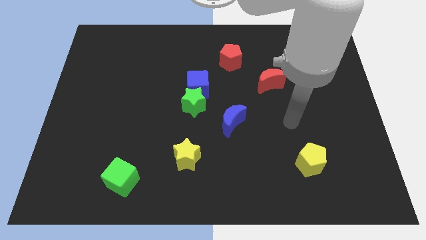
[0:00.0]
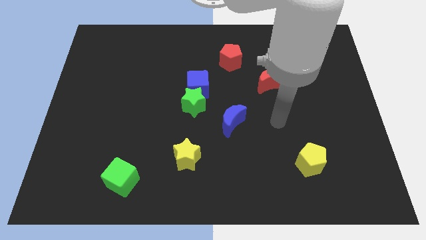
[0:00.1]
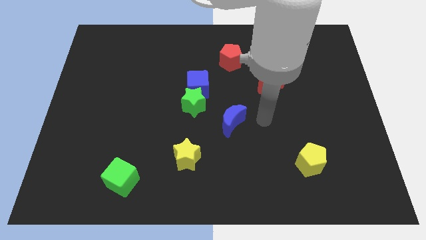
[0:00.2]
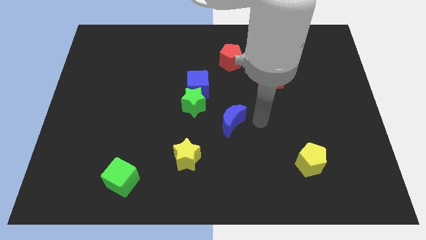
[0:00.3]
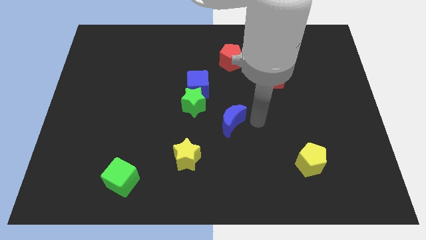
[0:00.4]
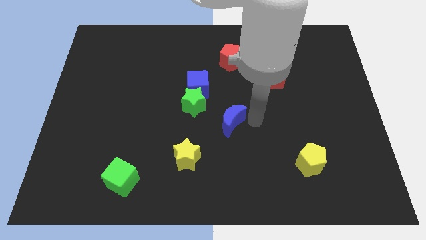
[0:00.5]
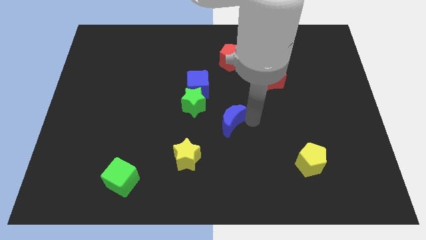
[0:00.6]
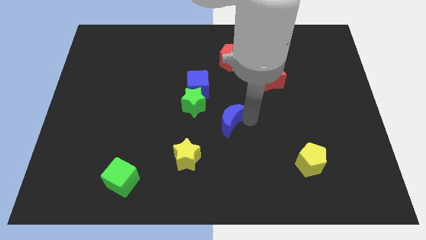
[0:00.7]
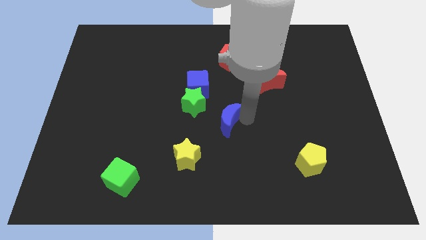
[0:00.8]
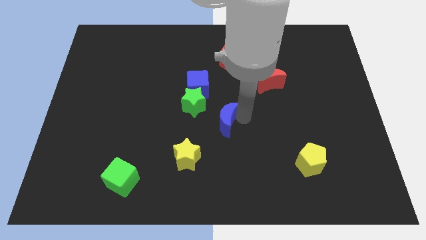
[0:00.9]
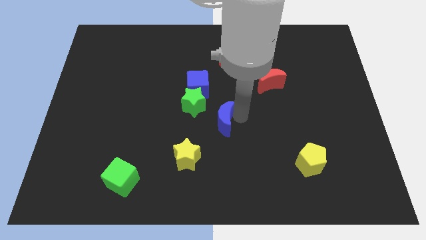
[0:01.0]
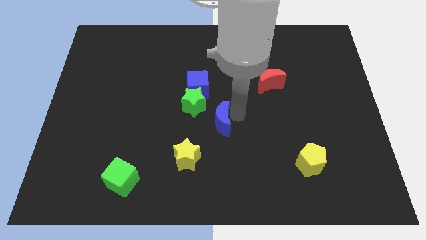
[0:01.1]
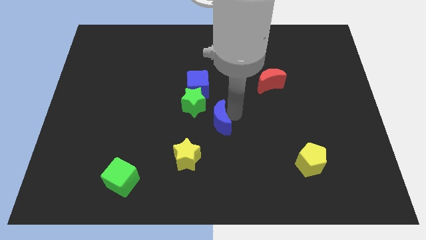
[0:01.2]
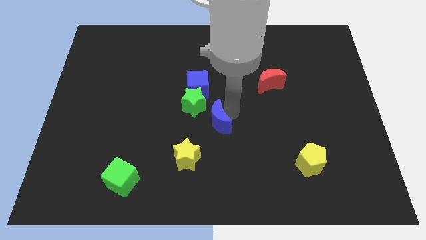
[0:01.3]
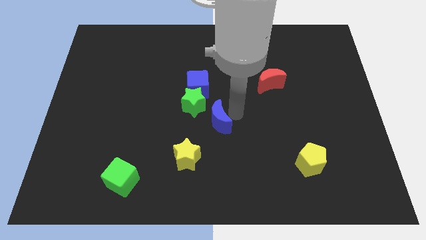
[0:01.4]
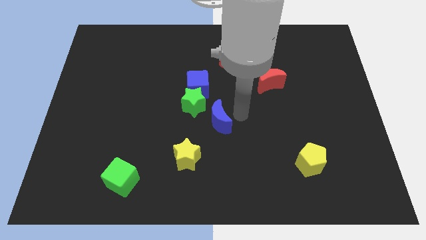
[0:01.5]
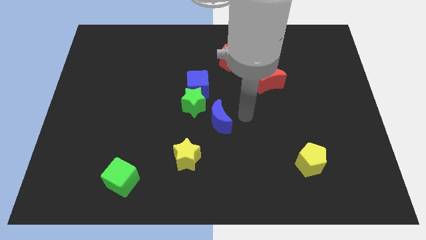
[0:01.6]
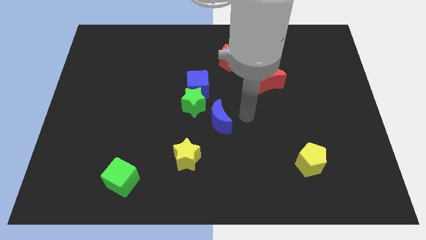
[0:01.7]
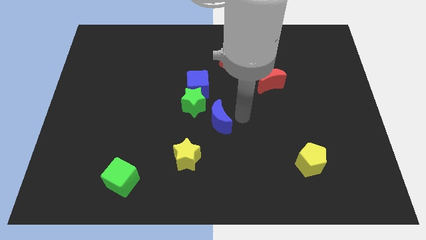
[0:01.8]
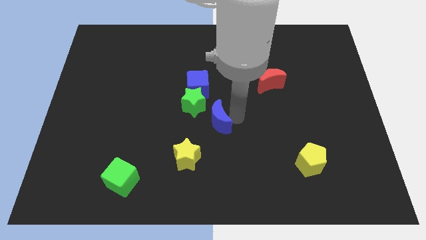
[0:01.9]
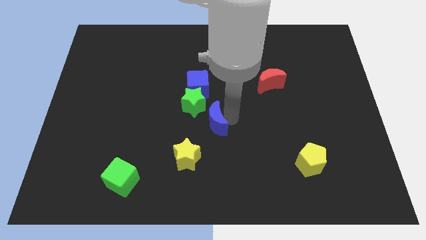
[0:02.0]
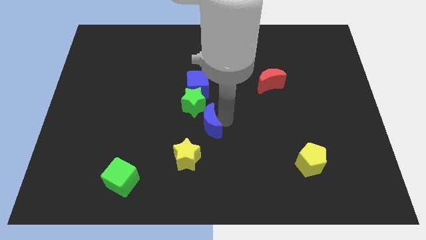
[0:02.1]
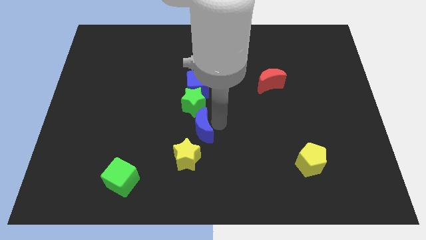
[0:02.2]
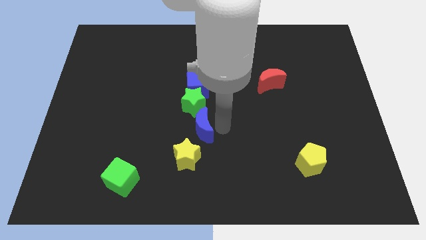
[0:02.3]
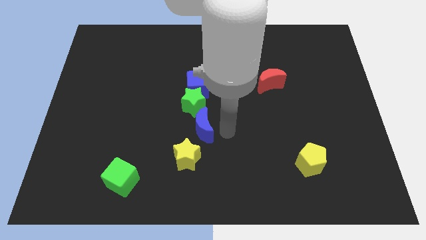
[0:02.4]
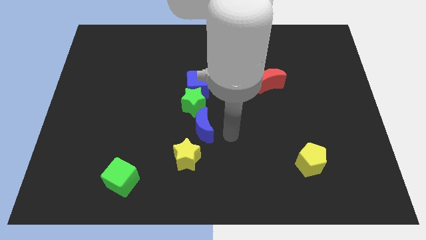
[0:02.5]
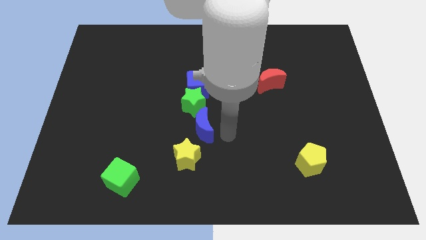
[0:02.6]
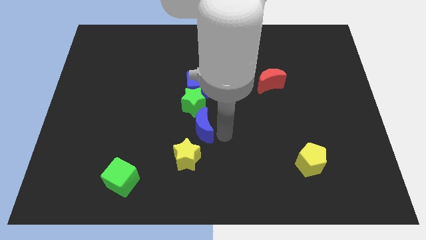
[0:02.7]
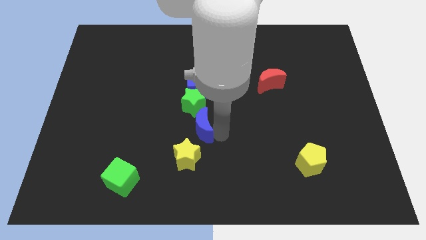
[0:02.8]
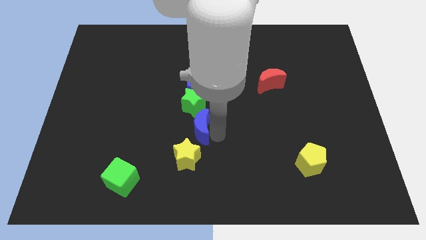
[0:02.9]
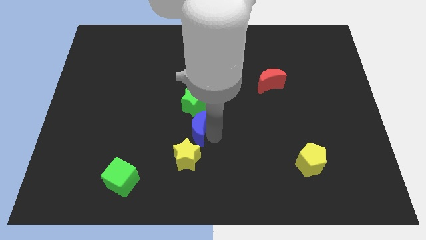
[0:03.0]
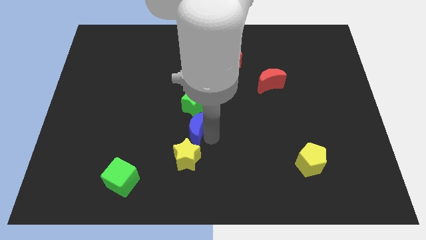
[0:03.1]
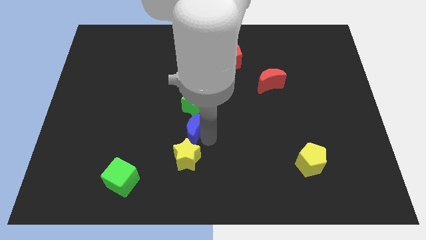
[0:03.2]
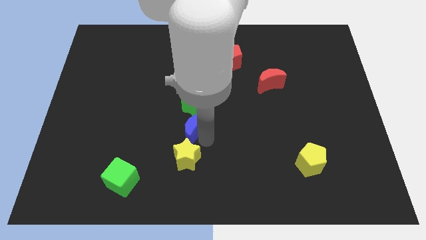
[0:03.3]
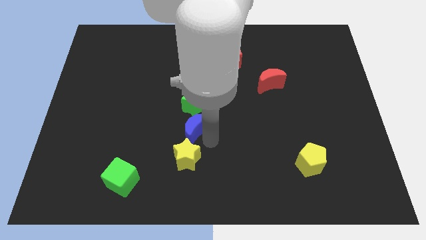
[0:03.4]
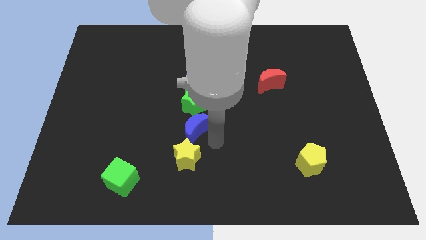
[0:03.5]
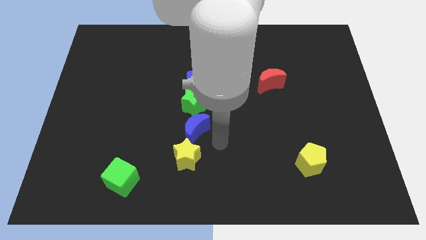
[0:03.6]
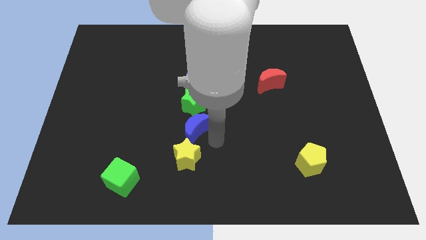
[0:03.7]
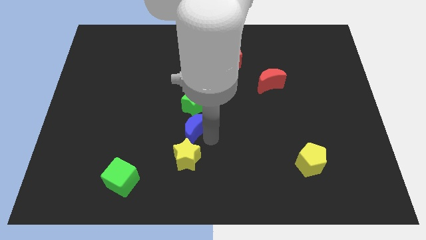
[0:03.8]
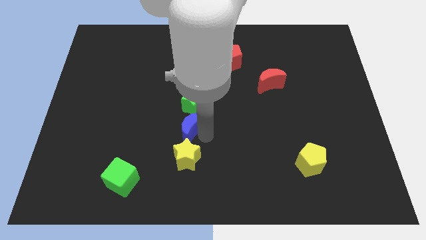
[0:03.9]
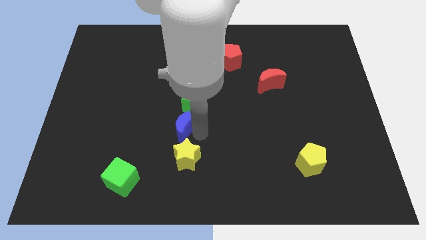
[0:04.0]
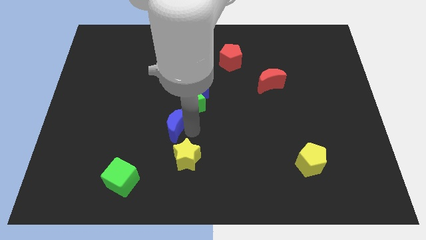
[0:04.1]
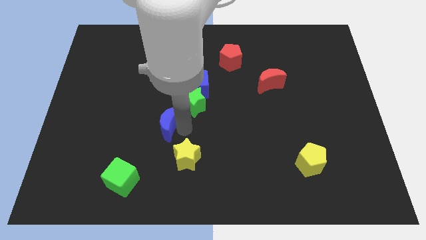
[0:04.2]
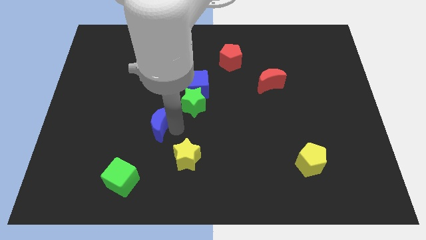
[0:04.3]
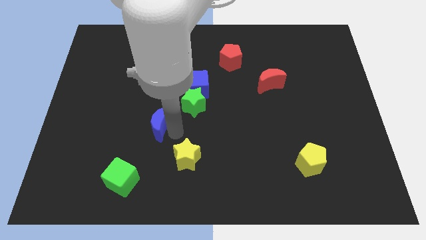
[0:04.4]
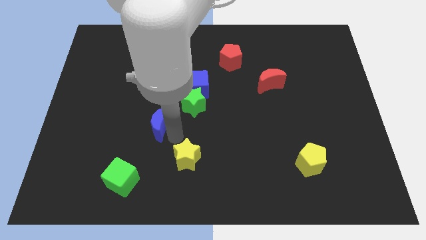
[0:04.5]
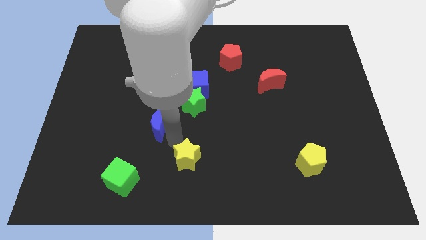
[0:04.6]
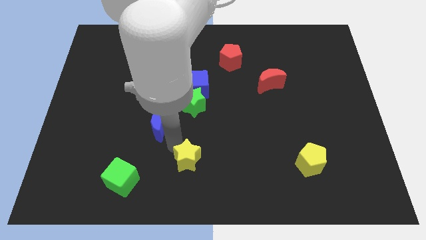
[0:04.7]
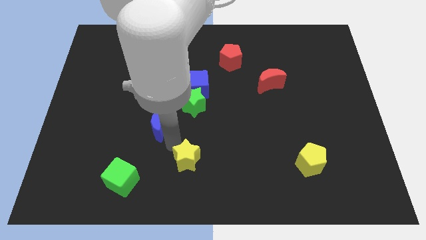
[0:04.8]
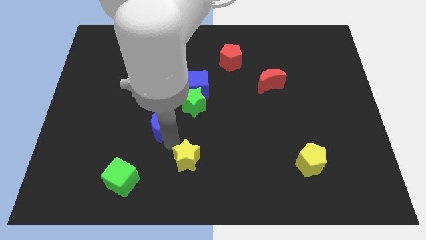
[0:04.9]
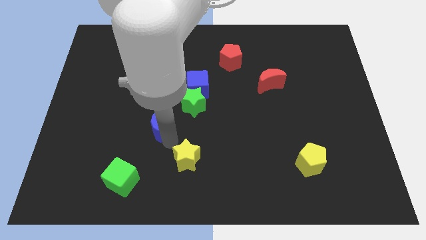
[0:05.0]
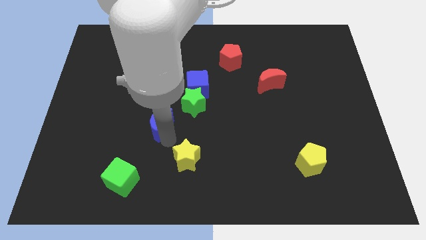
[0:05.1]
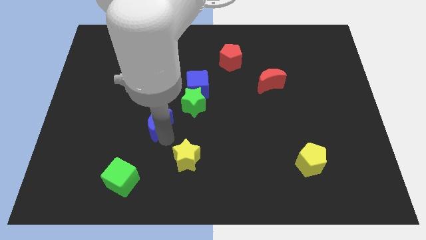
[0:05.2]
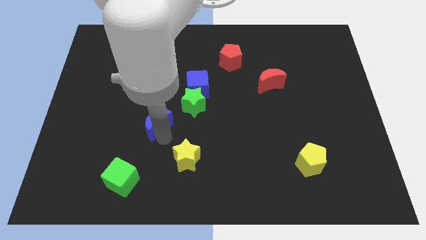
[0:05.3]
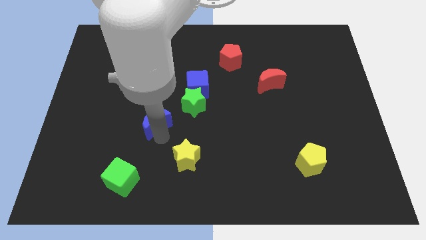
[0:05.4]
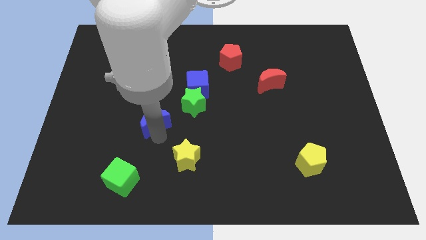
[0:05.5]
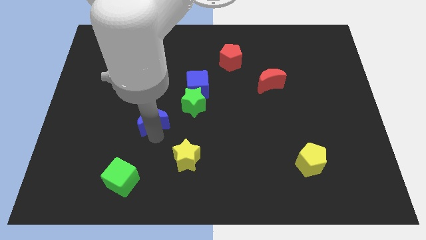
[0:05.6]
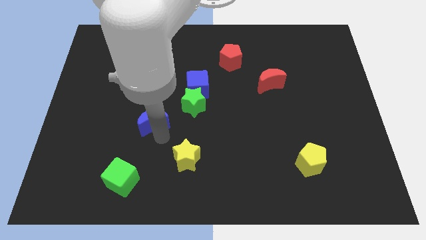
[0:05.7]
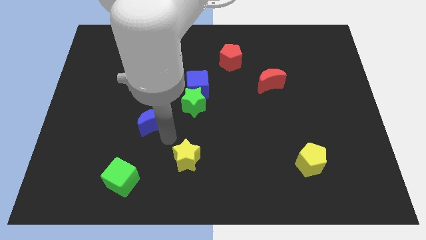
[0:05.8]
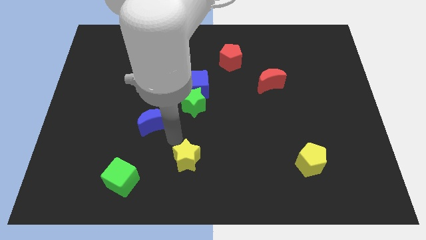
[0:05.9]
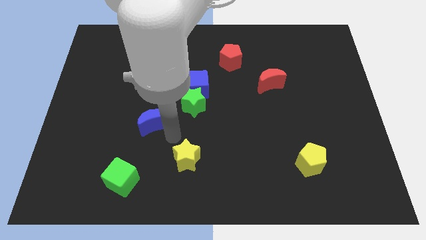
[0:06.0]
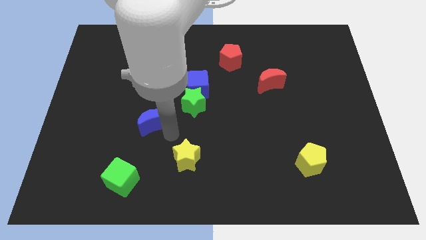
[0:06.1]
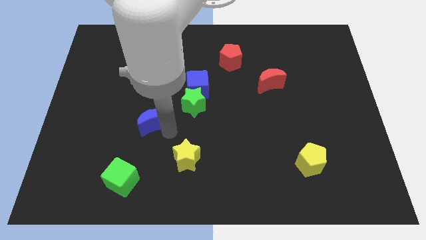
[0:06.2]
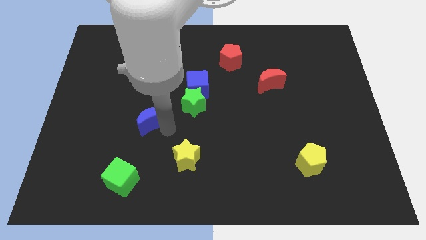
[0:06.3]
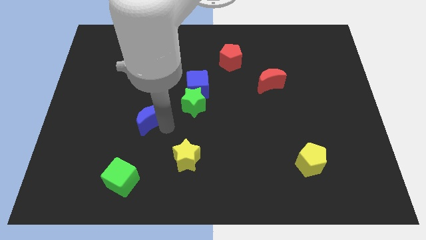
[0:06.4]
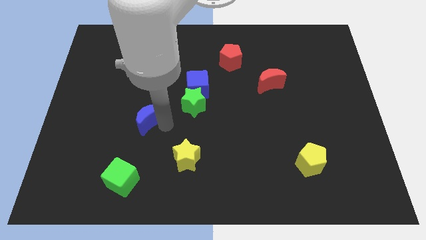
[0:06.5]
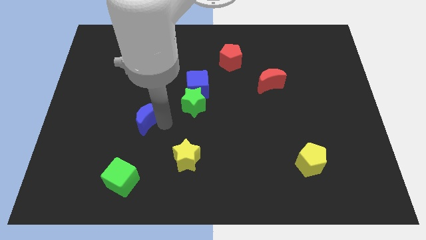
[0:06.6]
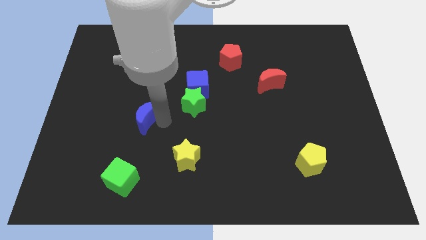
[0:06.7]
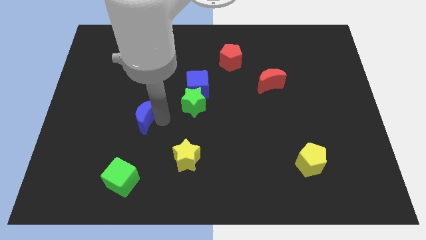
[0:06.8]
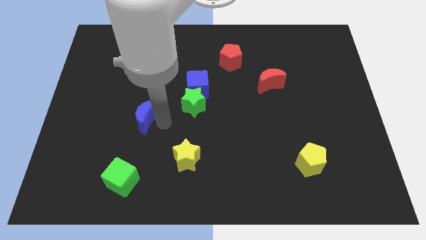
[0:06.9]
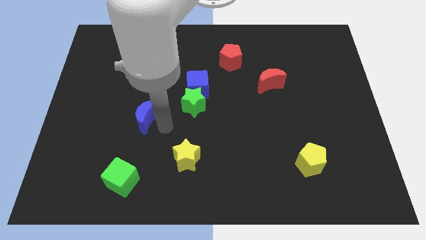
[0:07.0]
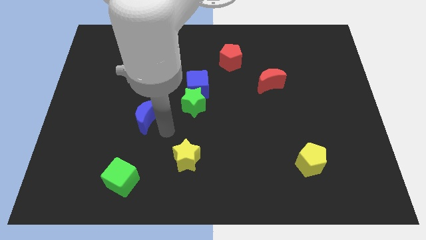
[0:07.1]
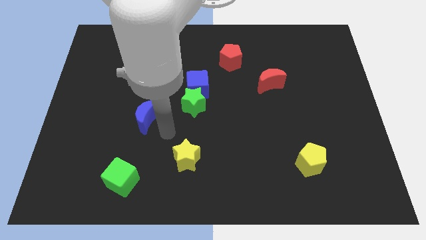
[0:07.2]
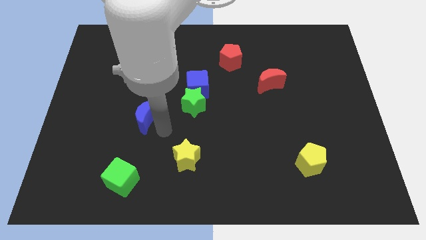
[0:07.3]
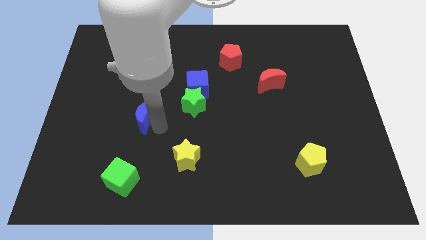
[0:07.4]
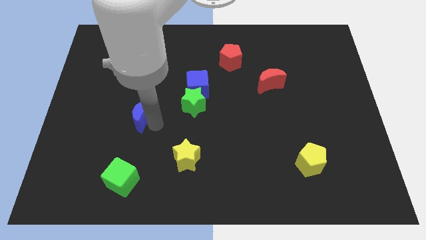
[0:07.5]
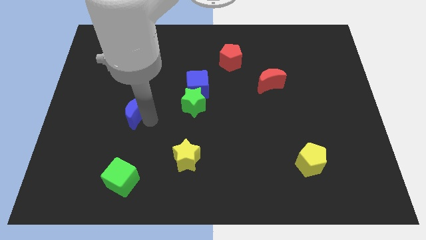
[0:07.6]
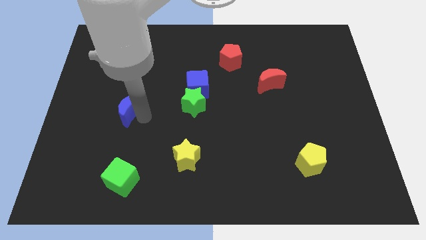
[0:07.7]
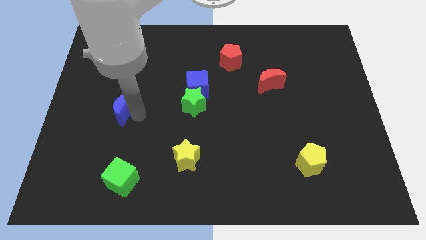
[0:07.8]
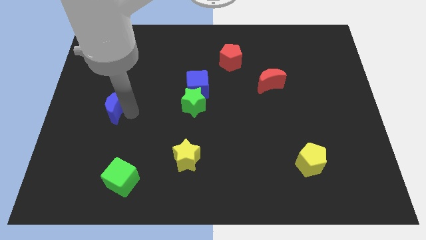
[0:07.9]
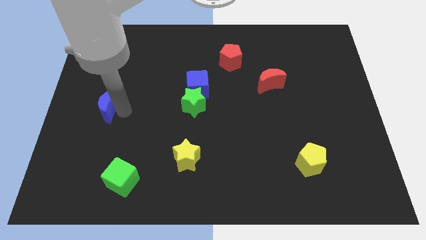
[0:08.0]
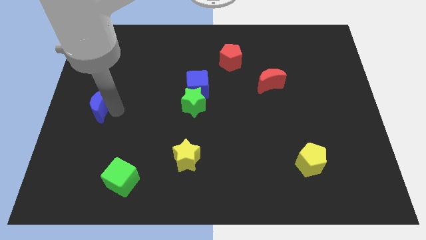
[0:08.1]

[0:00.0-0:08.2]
move the blue moon to the left side of the board
